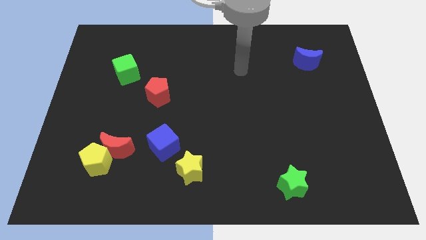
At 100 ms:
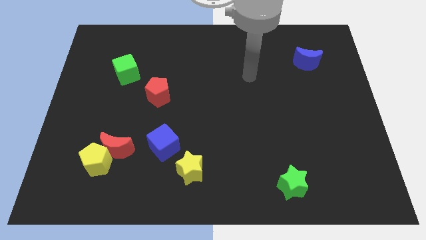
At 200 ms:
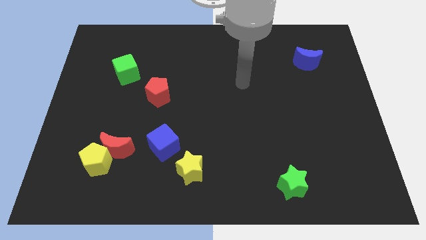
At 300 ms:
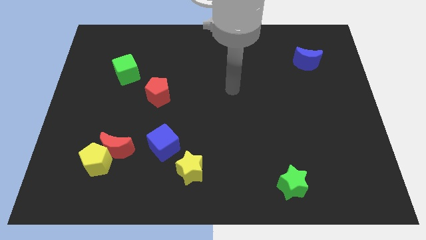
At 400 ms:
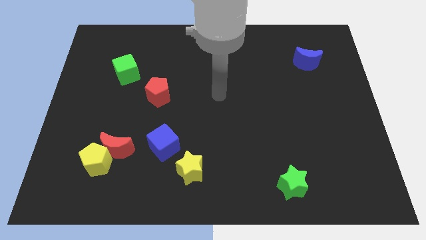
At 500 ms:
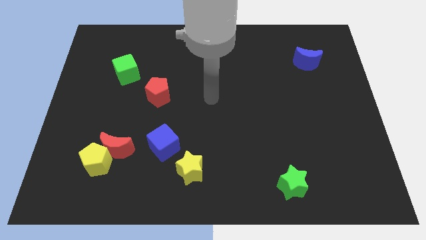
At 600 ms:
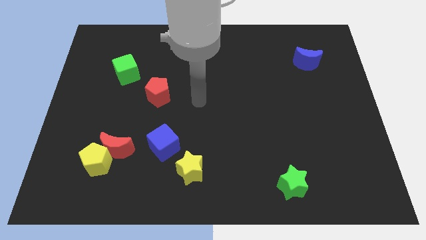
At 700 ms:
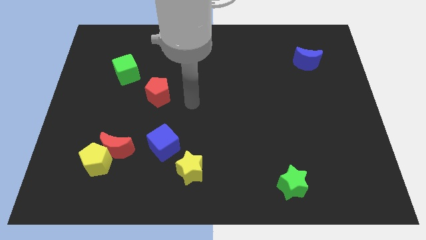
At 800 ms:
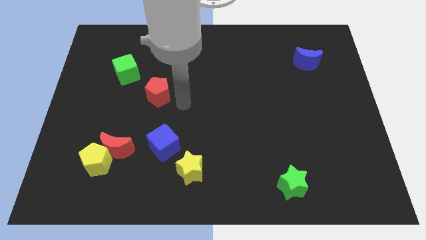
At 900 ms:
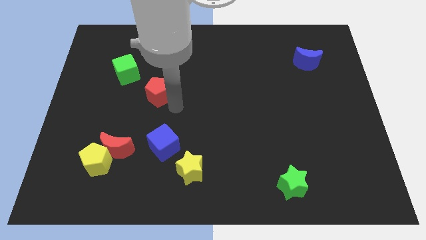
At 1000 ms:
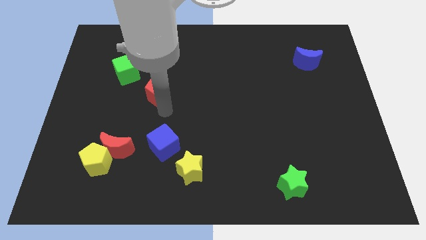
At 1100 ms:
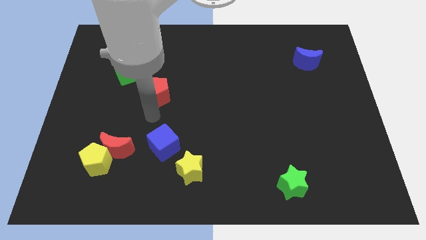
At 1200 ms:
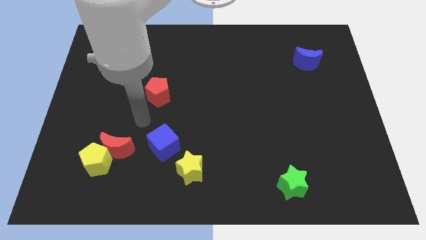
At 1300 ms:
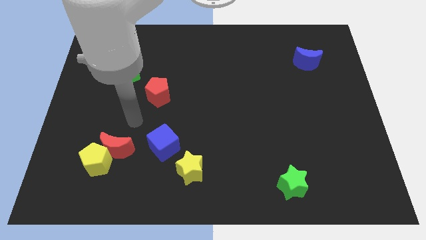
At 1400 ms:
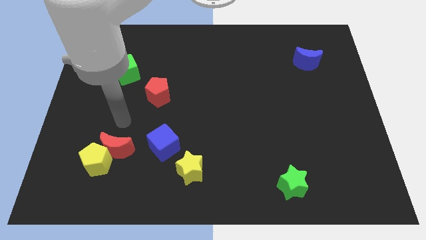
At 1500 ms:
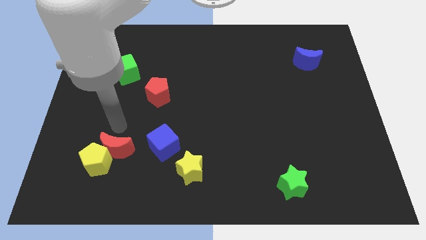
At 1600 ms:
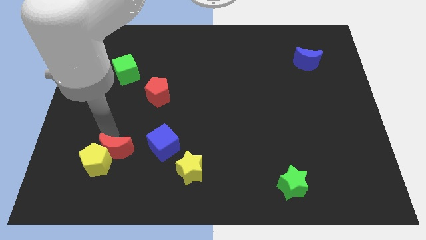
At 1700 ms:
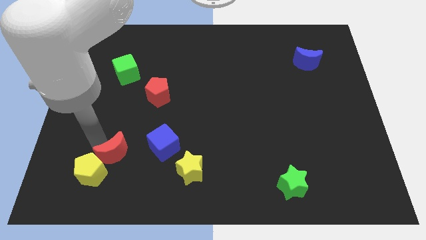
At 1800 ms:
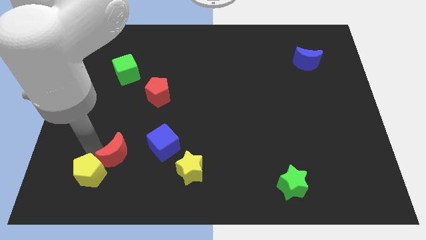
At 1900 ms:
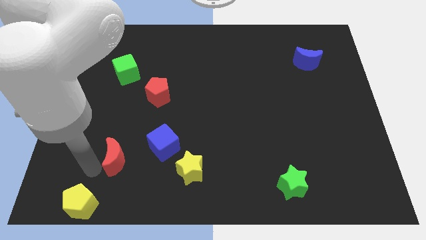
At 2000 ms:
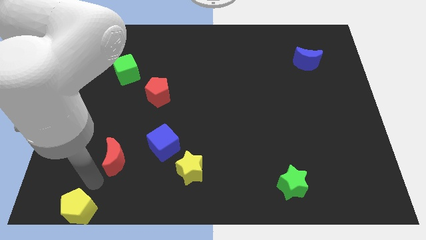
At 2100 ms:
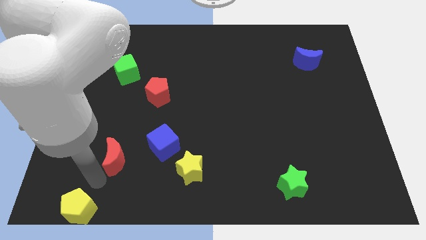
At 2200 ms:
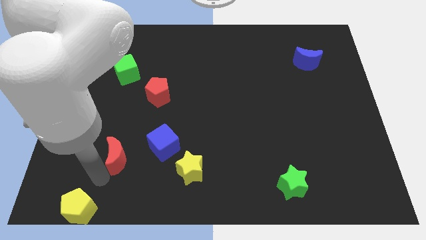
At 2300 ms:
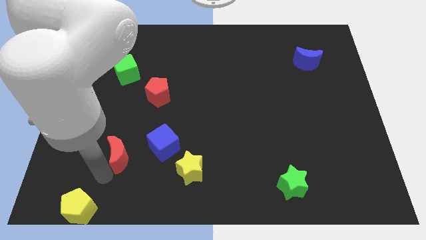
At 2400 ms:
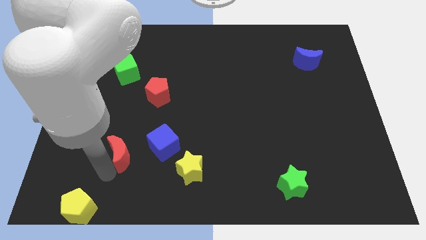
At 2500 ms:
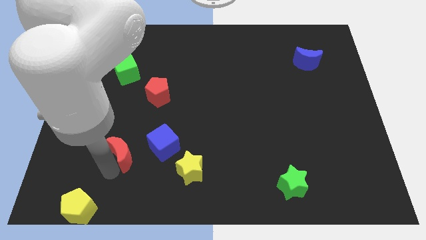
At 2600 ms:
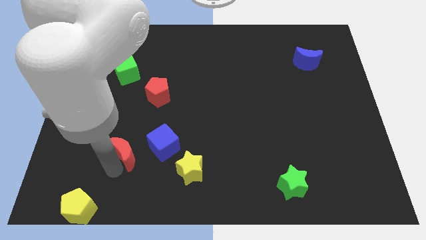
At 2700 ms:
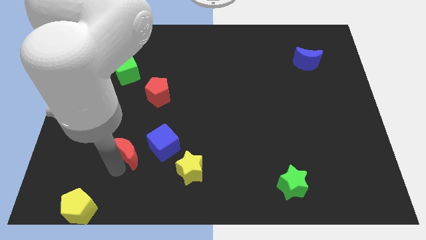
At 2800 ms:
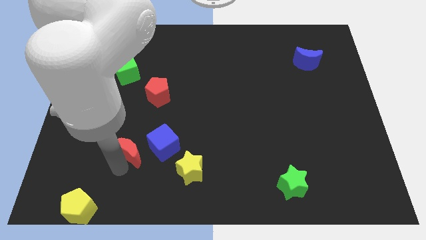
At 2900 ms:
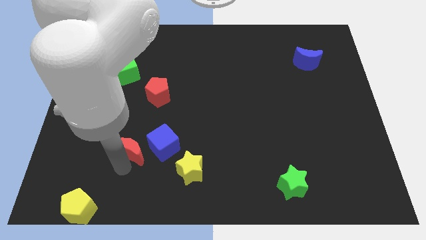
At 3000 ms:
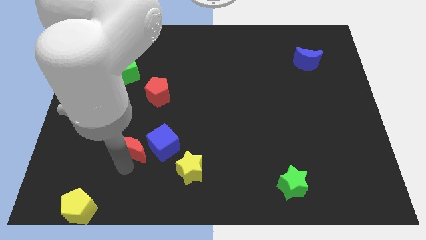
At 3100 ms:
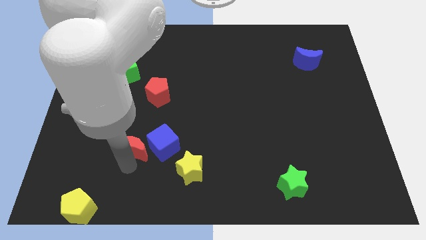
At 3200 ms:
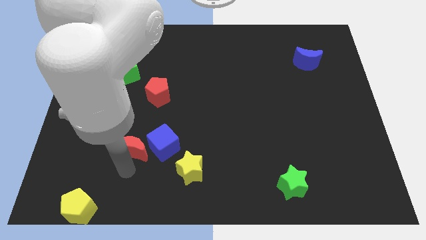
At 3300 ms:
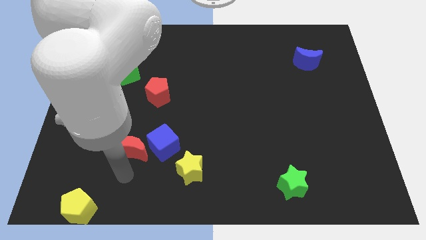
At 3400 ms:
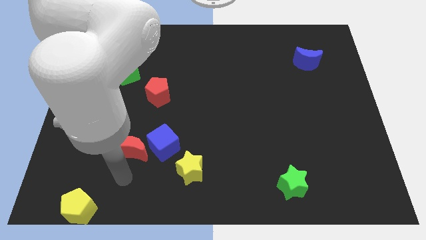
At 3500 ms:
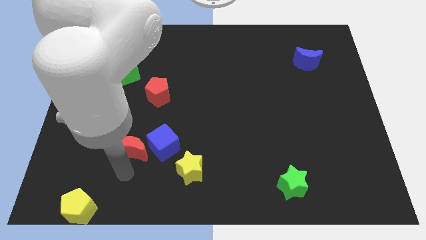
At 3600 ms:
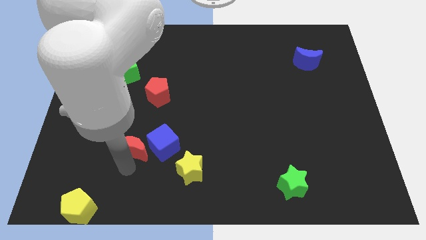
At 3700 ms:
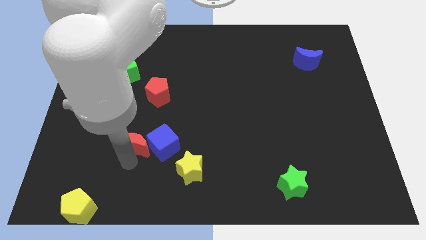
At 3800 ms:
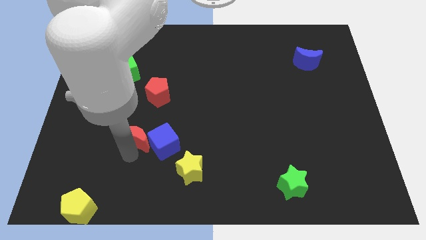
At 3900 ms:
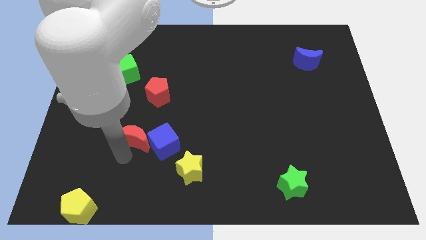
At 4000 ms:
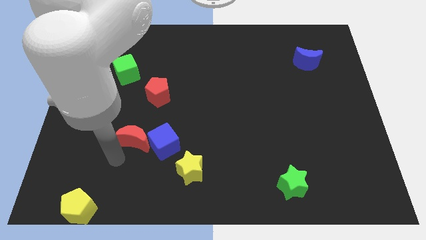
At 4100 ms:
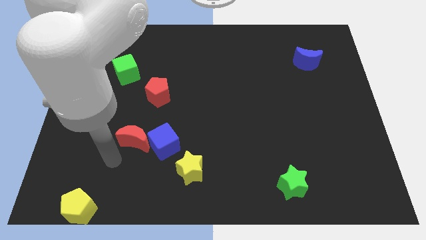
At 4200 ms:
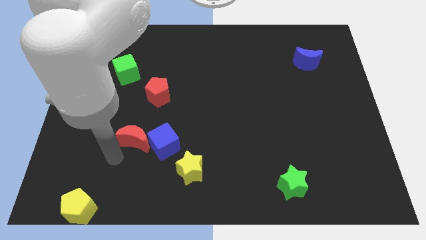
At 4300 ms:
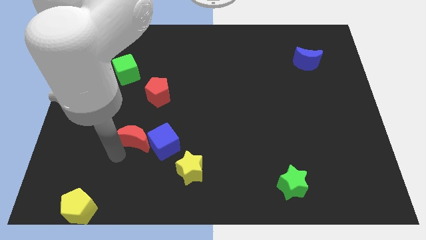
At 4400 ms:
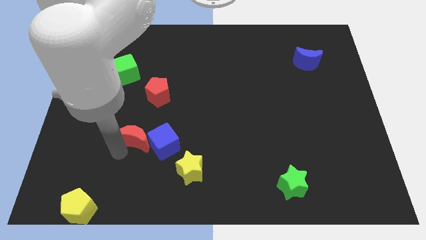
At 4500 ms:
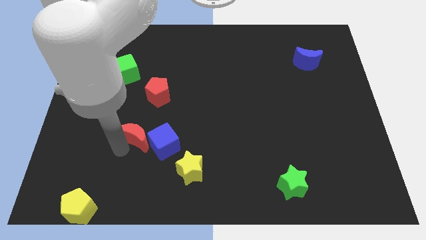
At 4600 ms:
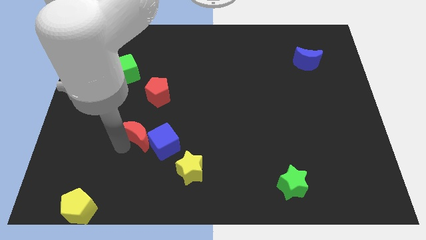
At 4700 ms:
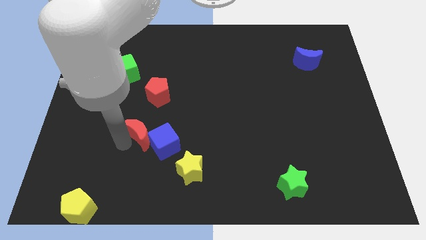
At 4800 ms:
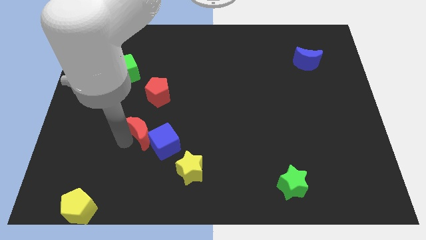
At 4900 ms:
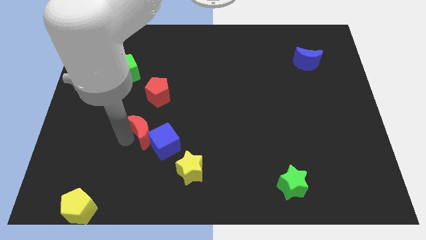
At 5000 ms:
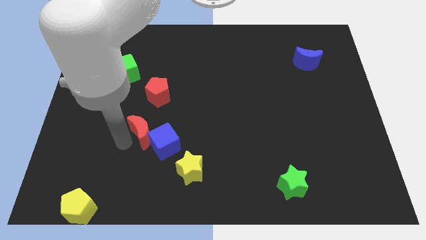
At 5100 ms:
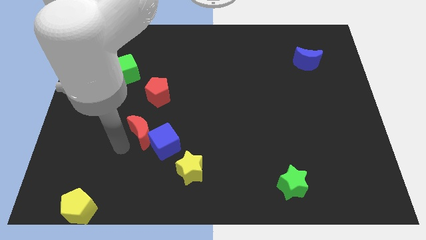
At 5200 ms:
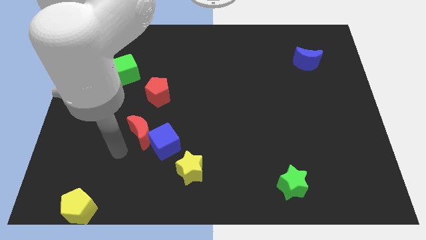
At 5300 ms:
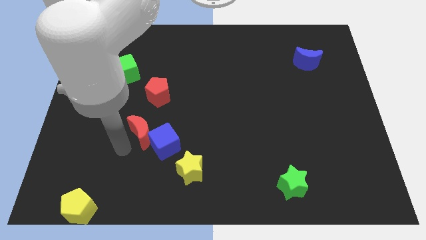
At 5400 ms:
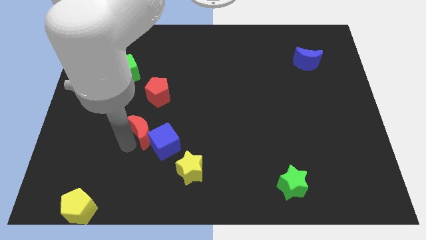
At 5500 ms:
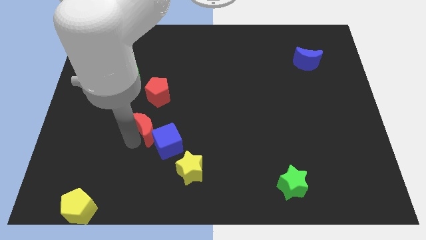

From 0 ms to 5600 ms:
push the red moon up and then right a bit

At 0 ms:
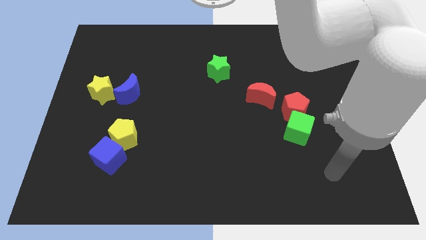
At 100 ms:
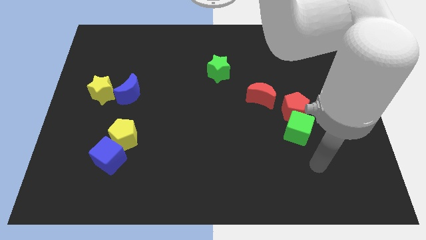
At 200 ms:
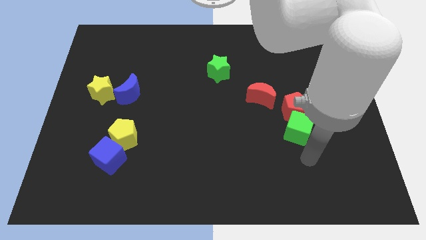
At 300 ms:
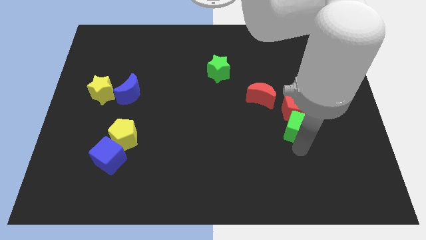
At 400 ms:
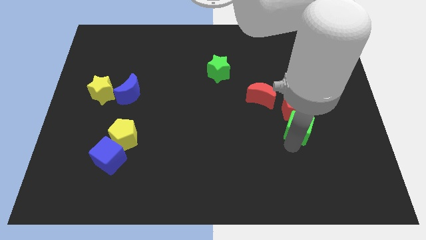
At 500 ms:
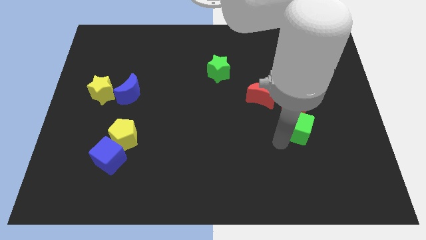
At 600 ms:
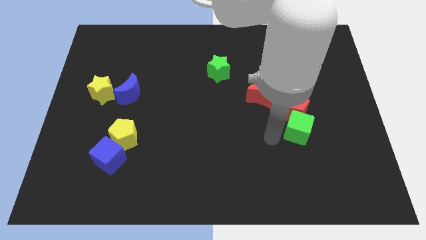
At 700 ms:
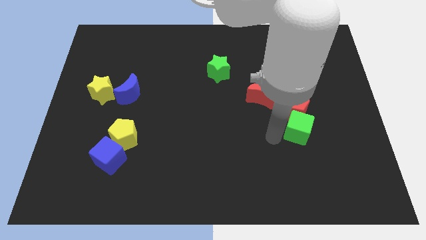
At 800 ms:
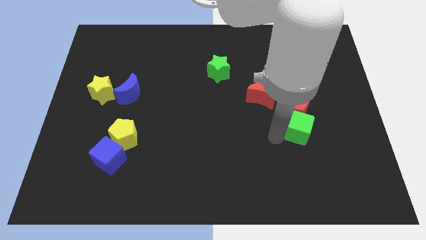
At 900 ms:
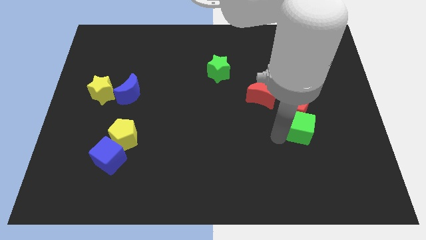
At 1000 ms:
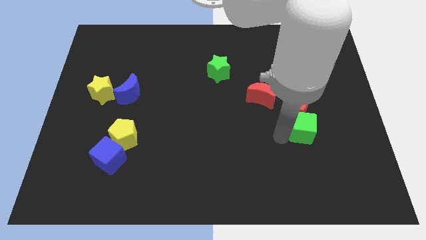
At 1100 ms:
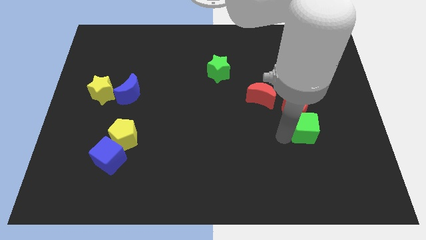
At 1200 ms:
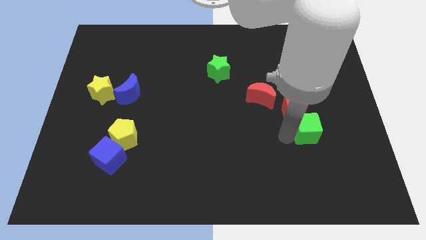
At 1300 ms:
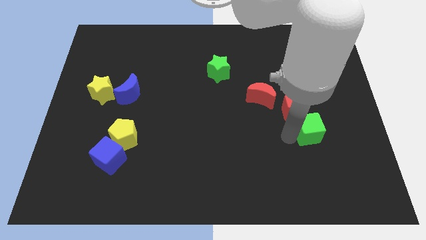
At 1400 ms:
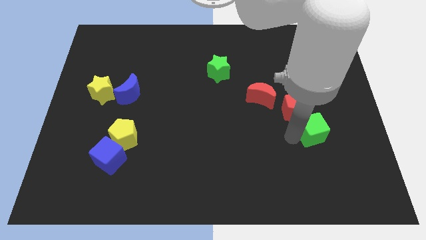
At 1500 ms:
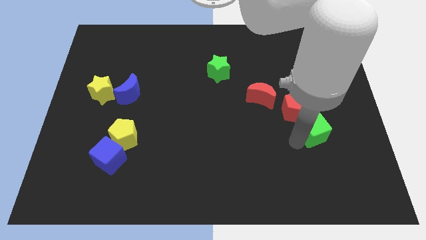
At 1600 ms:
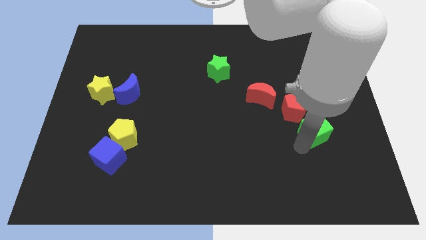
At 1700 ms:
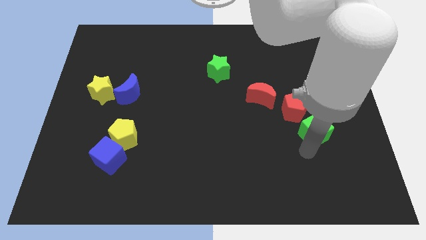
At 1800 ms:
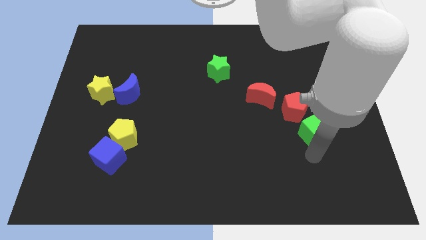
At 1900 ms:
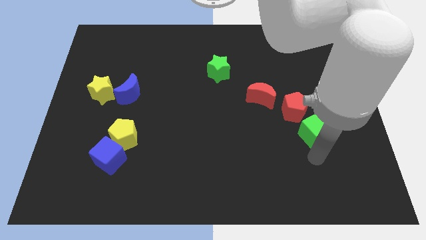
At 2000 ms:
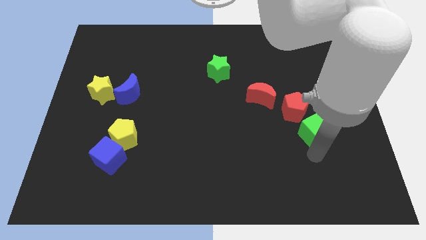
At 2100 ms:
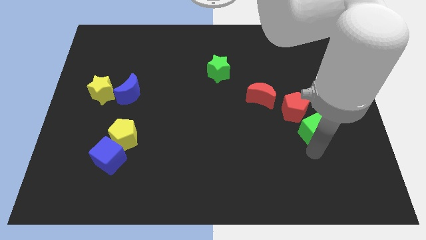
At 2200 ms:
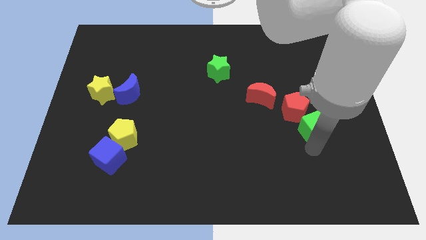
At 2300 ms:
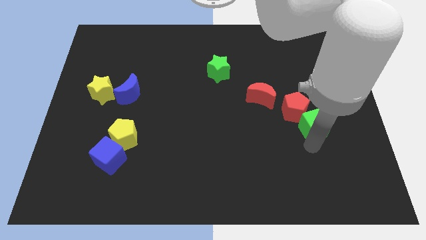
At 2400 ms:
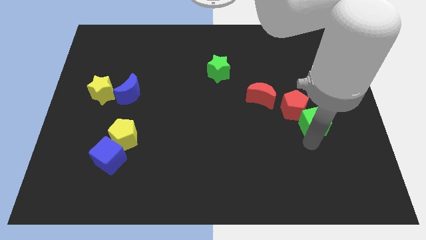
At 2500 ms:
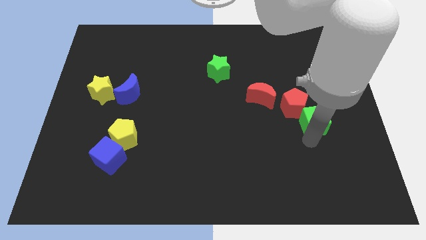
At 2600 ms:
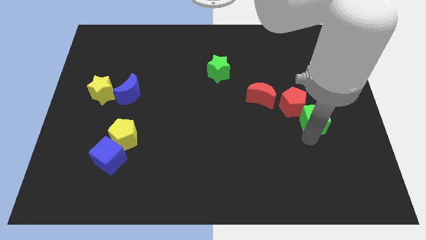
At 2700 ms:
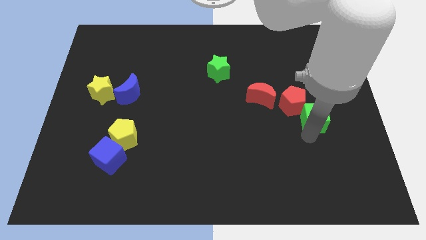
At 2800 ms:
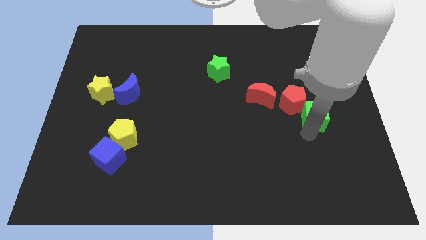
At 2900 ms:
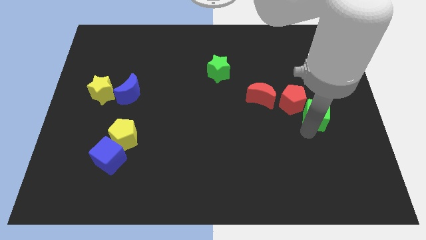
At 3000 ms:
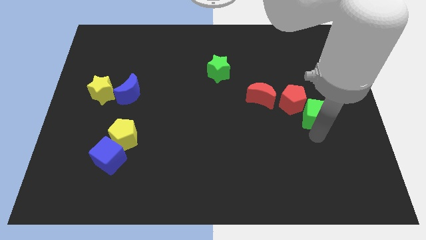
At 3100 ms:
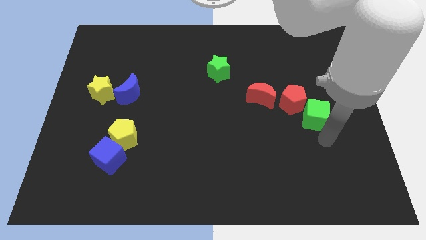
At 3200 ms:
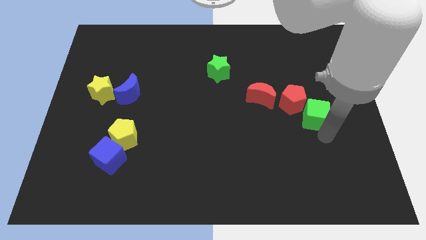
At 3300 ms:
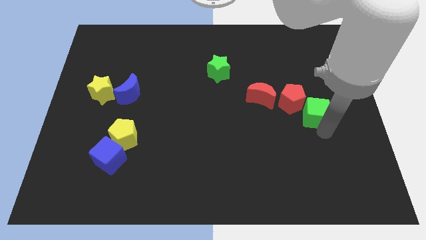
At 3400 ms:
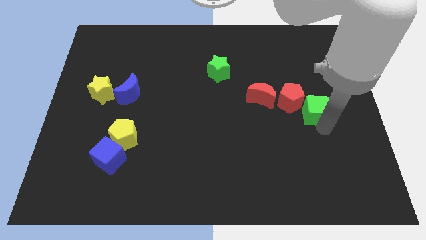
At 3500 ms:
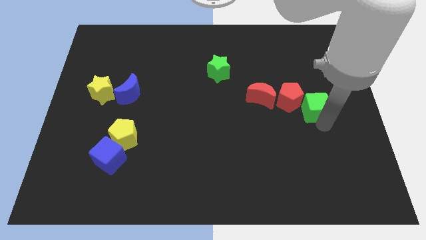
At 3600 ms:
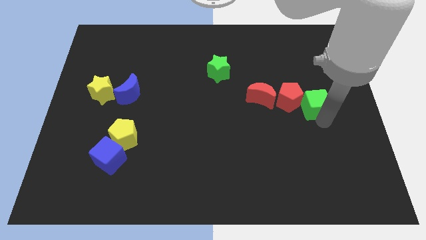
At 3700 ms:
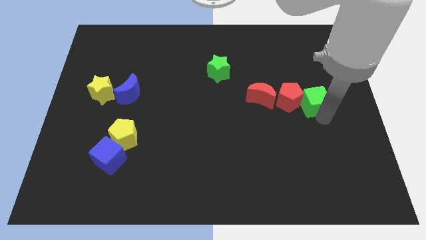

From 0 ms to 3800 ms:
slide the green cube a bit upwards
